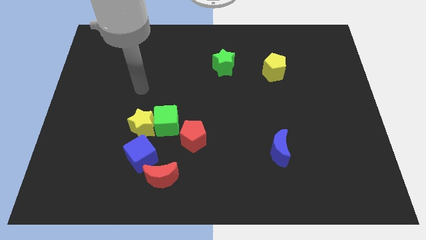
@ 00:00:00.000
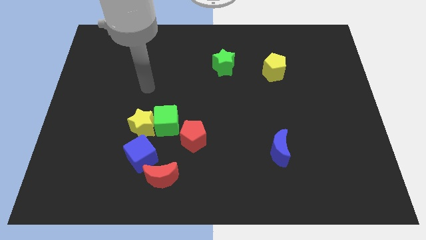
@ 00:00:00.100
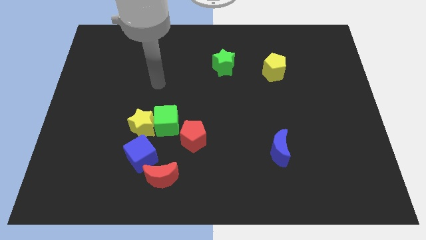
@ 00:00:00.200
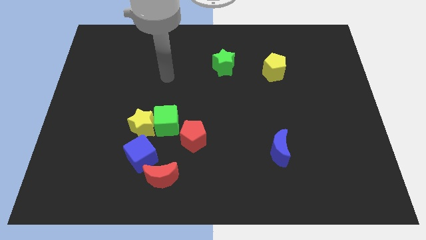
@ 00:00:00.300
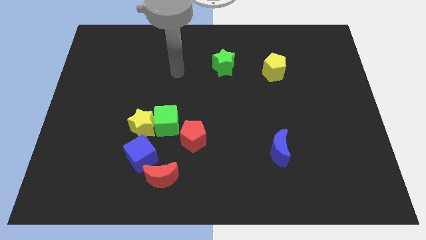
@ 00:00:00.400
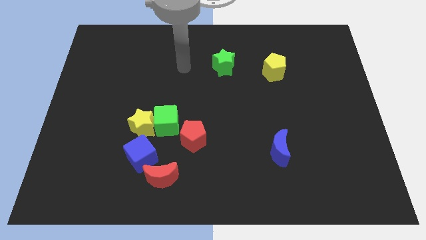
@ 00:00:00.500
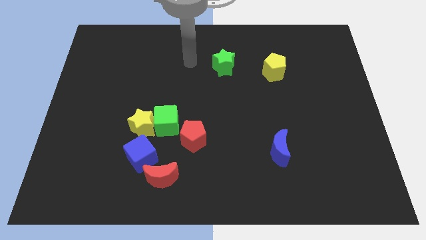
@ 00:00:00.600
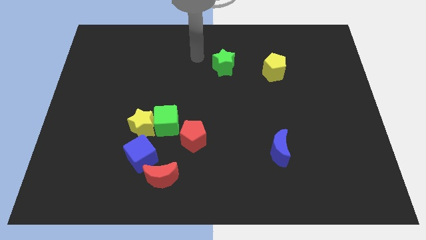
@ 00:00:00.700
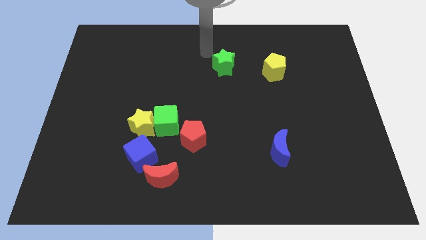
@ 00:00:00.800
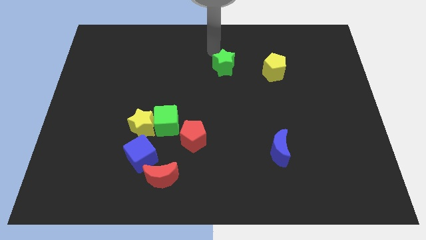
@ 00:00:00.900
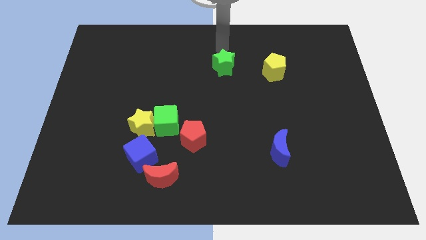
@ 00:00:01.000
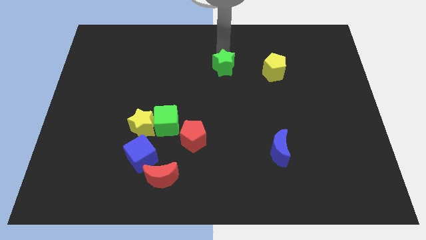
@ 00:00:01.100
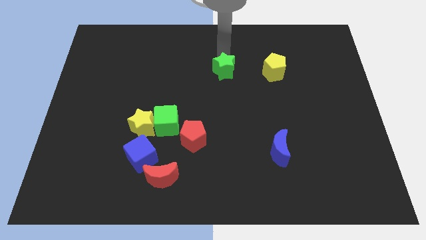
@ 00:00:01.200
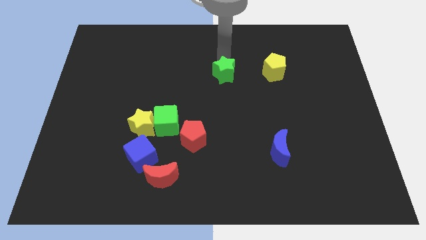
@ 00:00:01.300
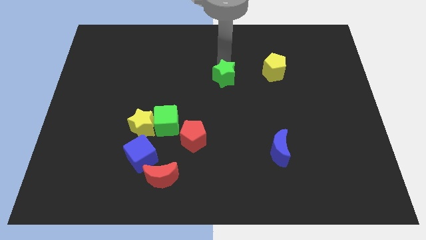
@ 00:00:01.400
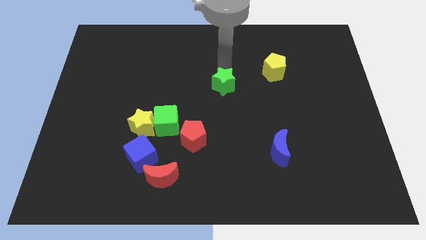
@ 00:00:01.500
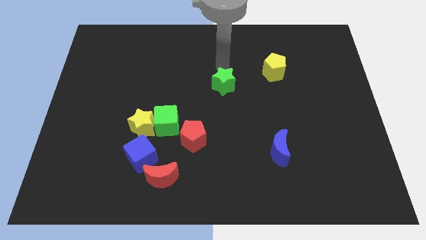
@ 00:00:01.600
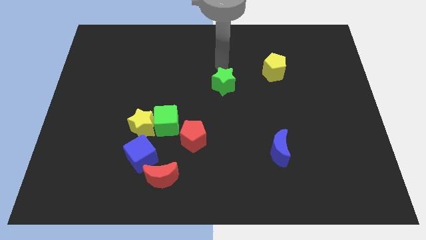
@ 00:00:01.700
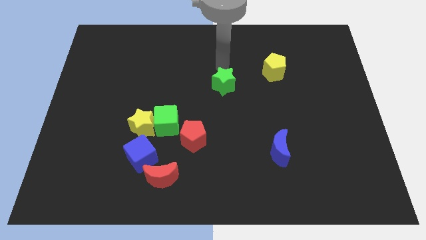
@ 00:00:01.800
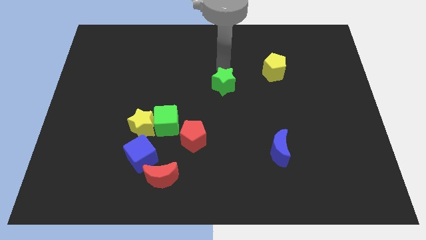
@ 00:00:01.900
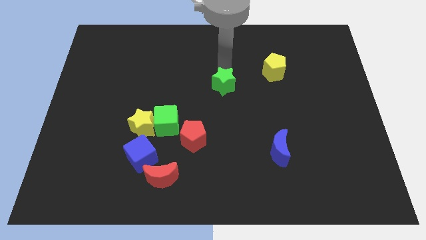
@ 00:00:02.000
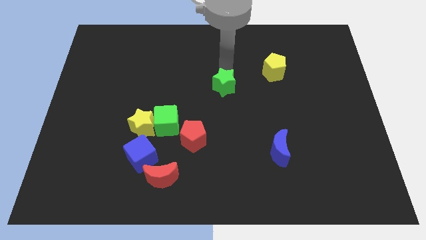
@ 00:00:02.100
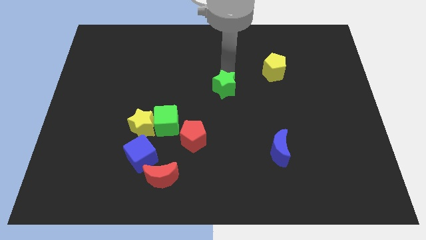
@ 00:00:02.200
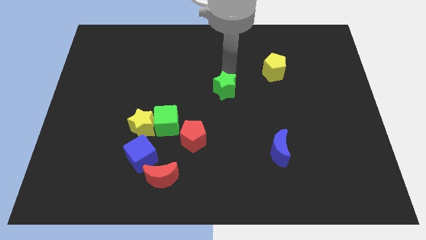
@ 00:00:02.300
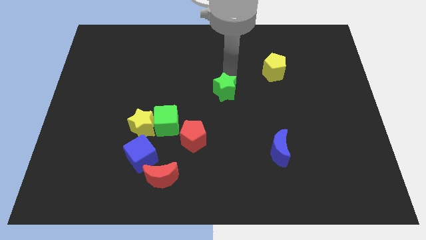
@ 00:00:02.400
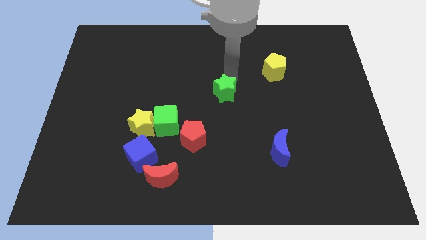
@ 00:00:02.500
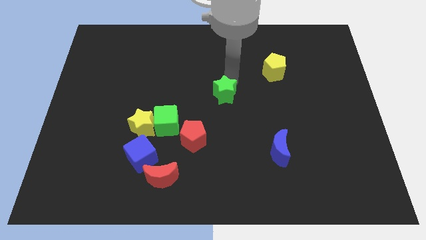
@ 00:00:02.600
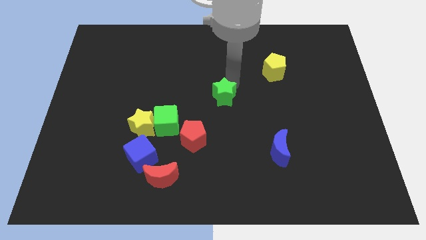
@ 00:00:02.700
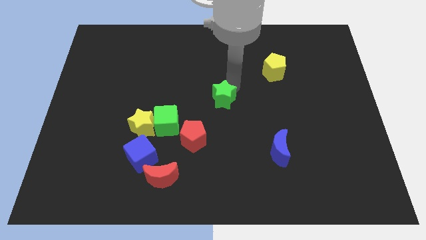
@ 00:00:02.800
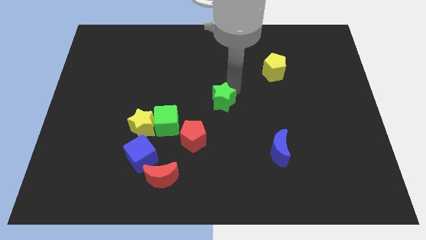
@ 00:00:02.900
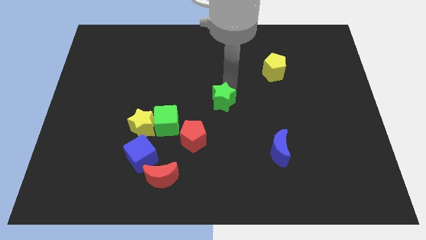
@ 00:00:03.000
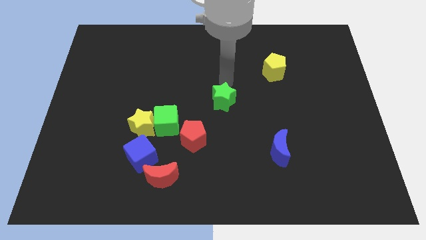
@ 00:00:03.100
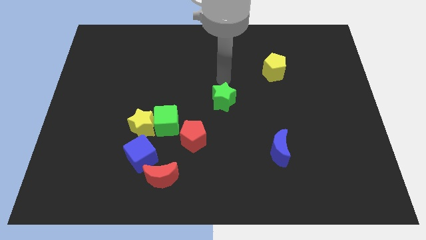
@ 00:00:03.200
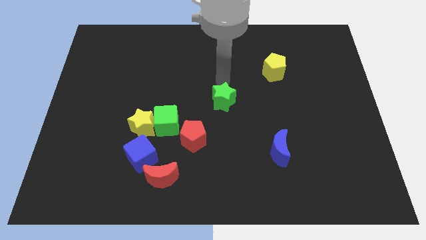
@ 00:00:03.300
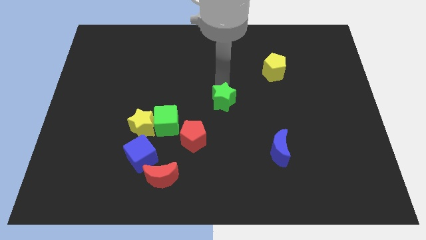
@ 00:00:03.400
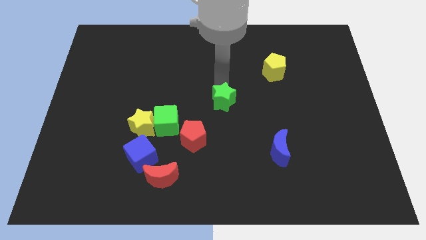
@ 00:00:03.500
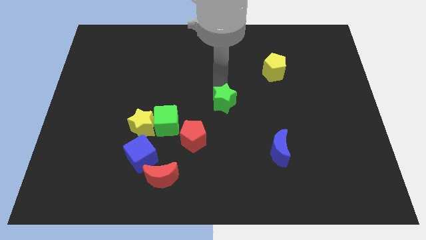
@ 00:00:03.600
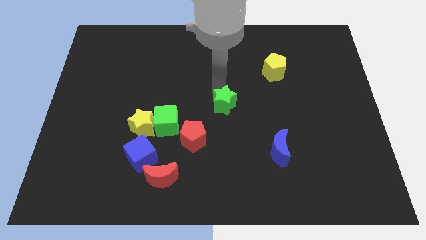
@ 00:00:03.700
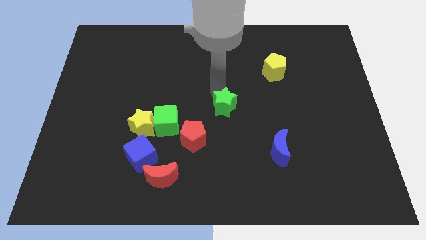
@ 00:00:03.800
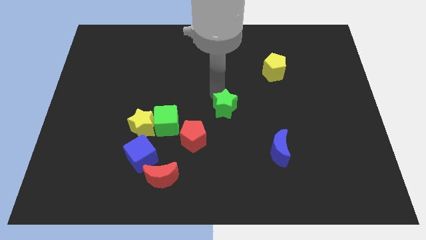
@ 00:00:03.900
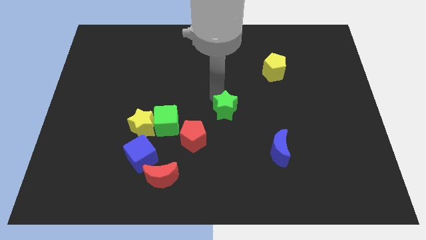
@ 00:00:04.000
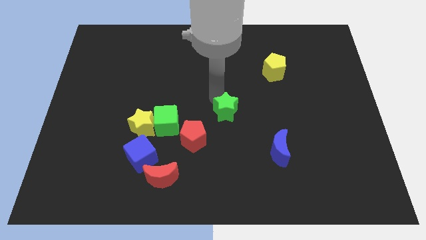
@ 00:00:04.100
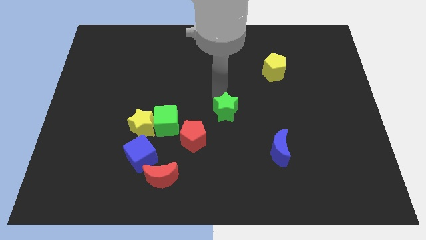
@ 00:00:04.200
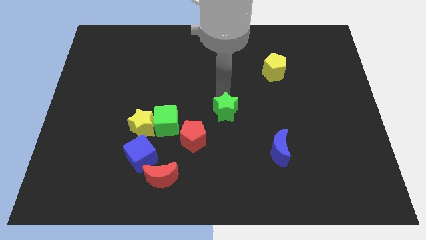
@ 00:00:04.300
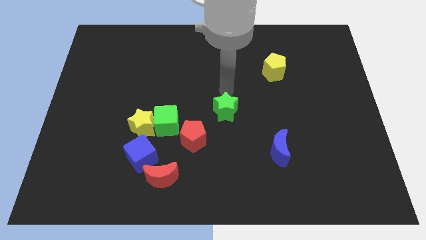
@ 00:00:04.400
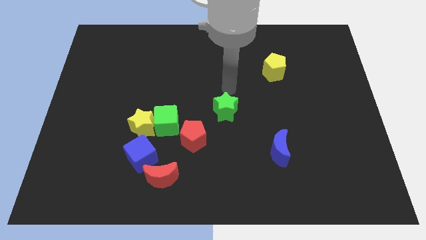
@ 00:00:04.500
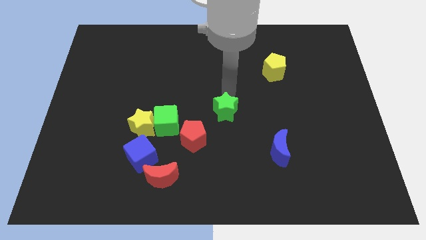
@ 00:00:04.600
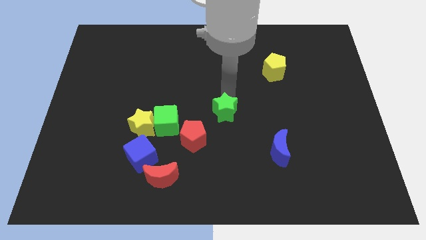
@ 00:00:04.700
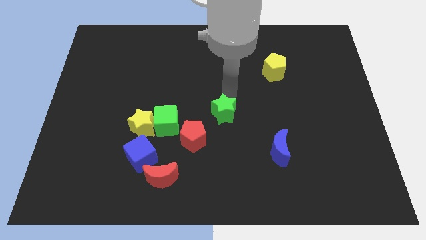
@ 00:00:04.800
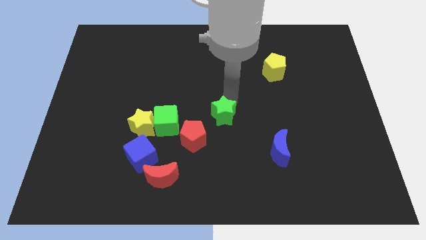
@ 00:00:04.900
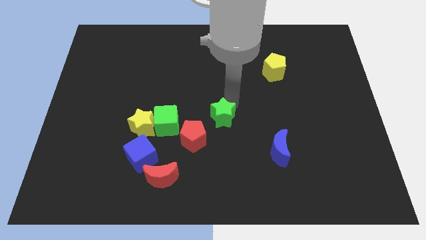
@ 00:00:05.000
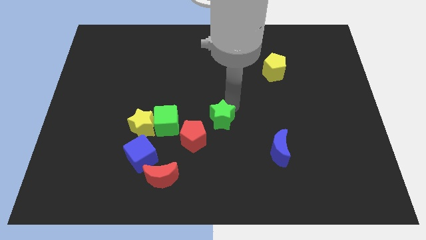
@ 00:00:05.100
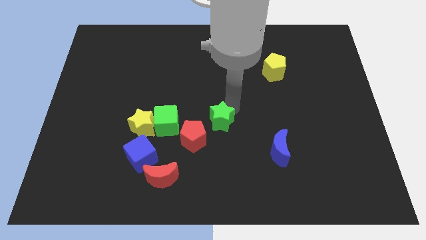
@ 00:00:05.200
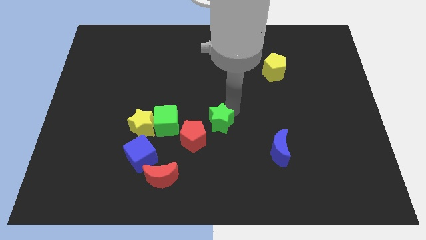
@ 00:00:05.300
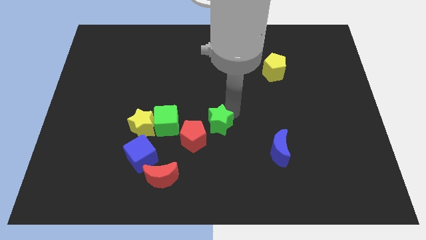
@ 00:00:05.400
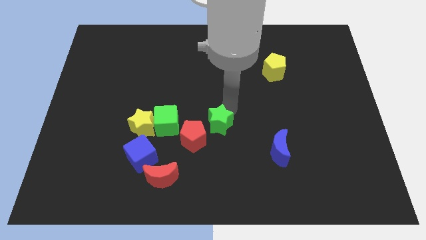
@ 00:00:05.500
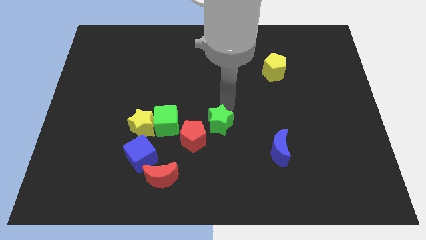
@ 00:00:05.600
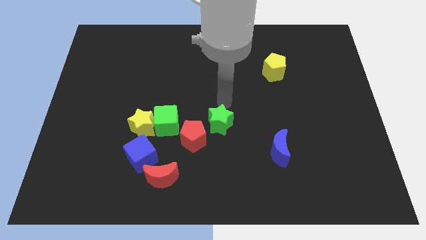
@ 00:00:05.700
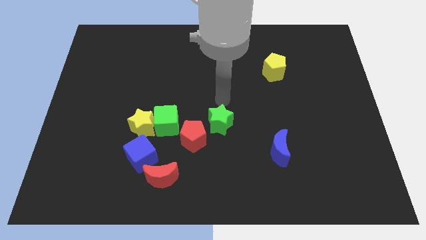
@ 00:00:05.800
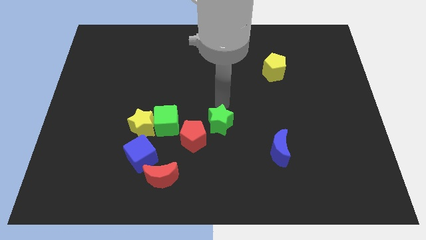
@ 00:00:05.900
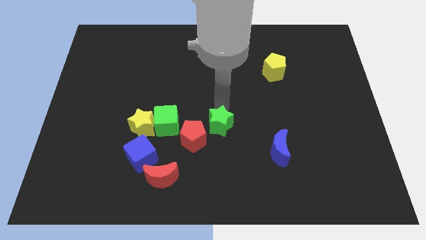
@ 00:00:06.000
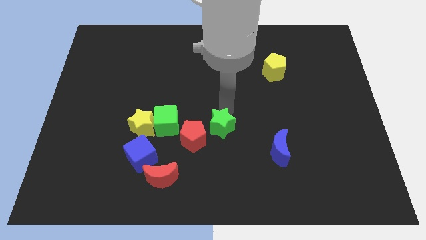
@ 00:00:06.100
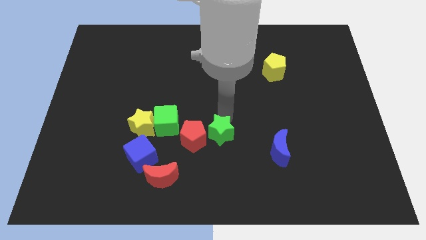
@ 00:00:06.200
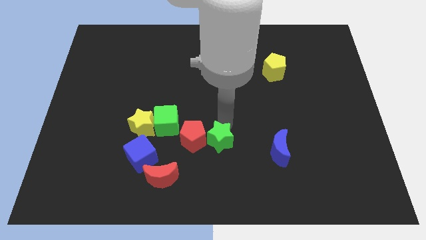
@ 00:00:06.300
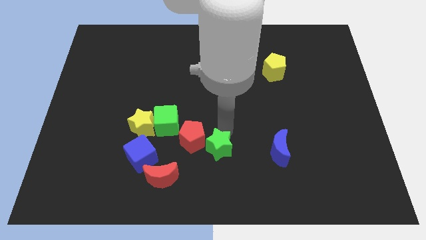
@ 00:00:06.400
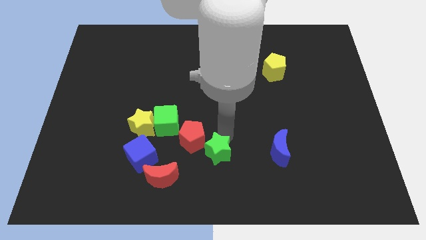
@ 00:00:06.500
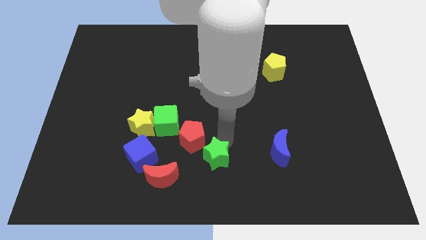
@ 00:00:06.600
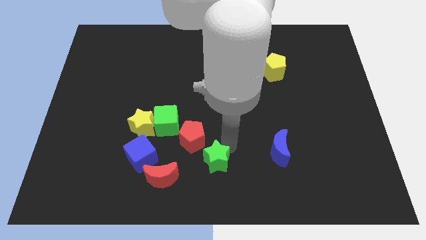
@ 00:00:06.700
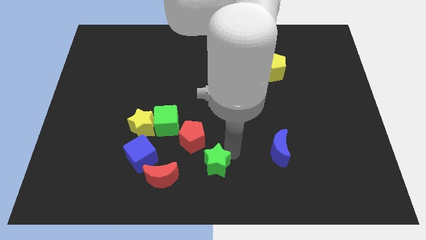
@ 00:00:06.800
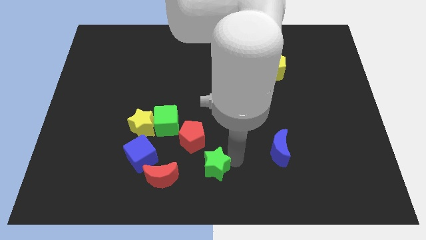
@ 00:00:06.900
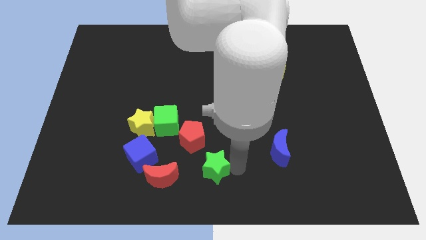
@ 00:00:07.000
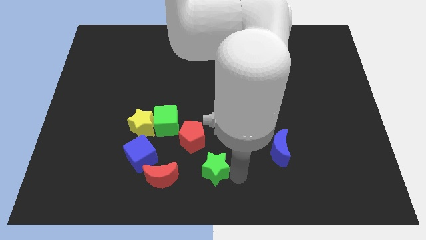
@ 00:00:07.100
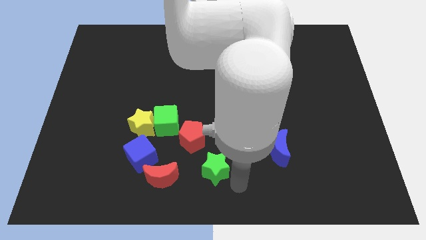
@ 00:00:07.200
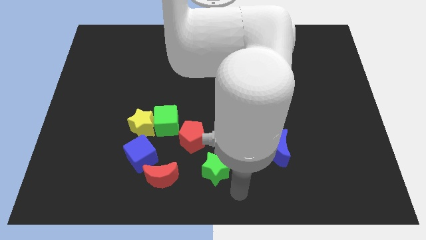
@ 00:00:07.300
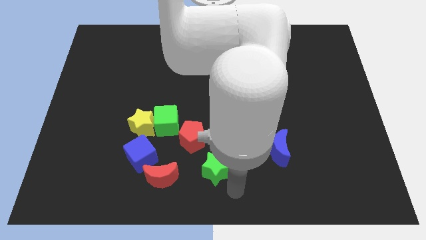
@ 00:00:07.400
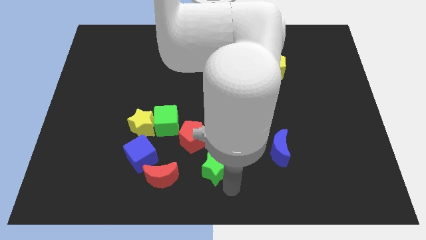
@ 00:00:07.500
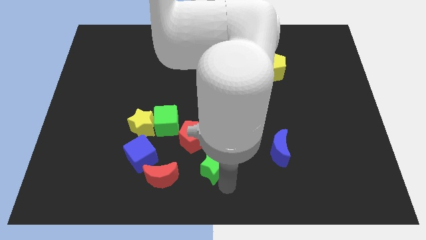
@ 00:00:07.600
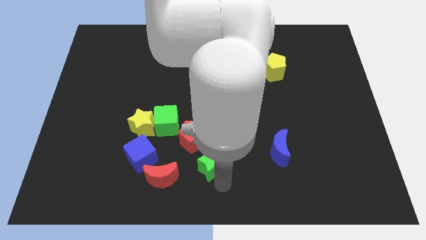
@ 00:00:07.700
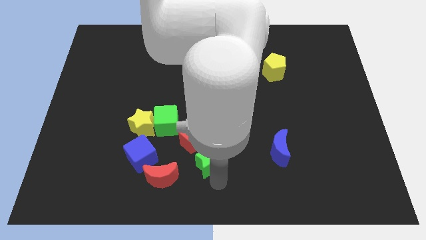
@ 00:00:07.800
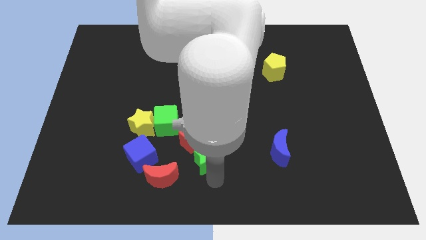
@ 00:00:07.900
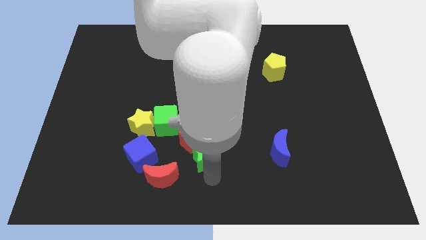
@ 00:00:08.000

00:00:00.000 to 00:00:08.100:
push the green star diagonally down and to the right of the green cube
